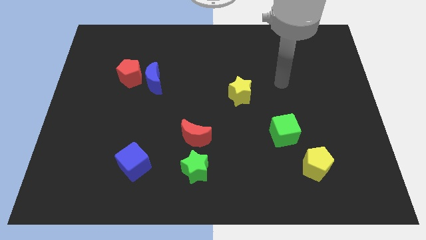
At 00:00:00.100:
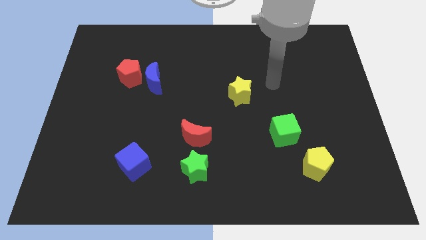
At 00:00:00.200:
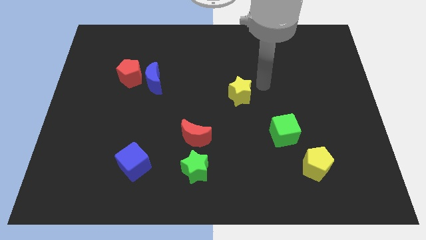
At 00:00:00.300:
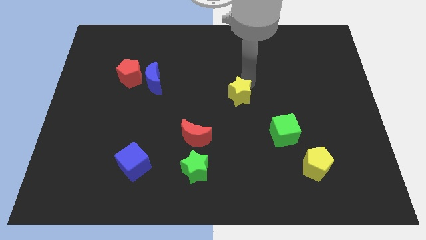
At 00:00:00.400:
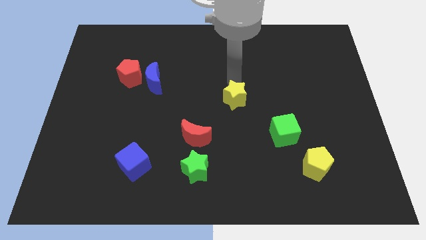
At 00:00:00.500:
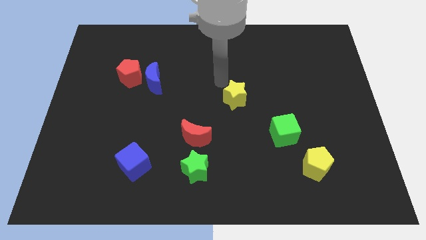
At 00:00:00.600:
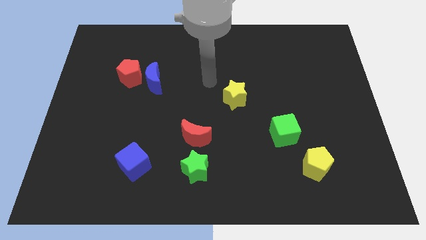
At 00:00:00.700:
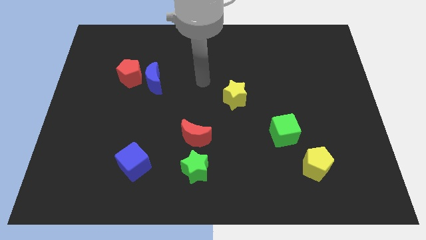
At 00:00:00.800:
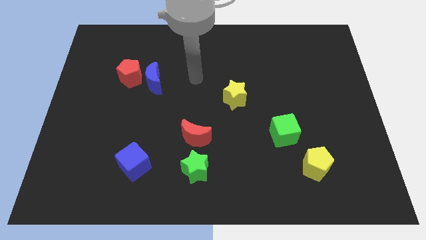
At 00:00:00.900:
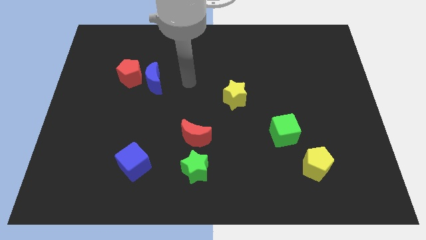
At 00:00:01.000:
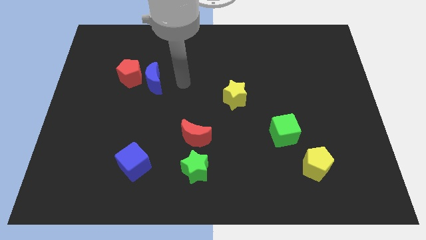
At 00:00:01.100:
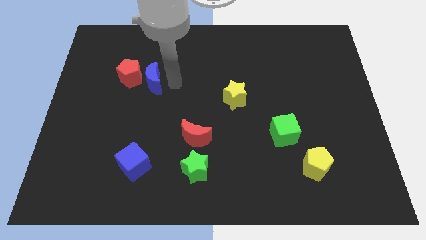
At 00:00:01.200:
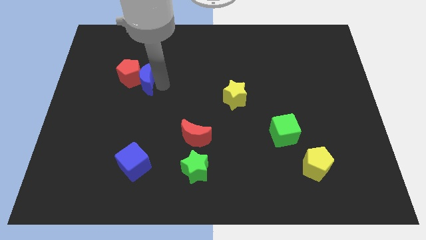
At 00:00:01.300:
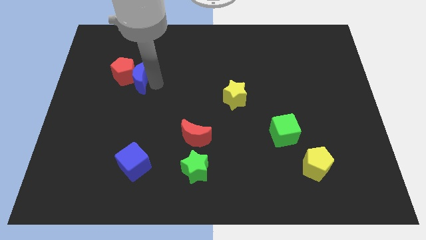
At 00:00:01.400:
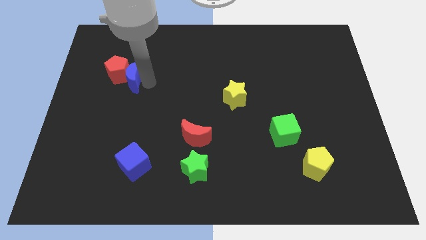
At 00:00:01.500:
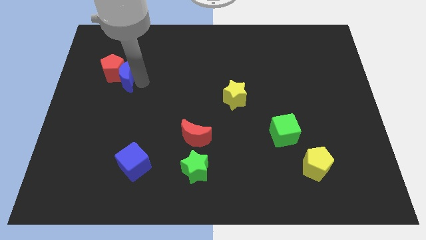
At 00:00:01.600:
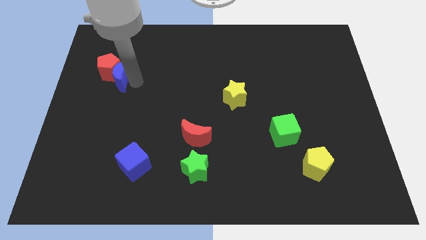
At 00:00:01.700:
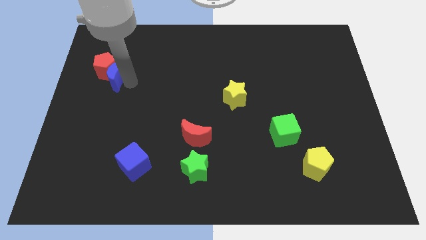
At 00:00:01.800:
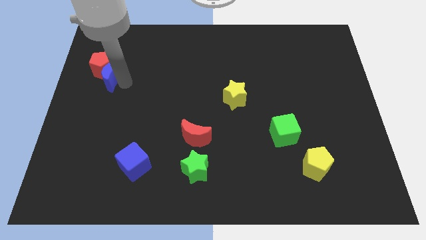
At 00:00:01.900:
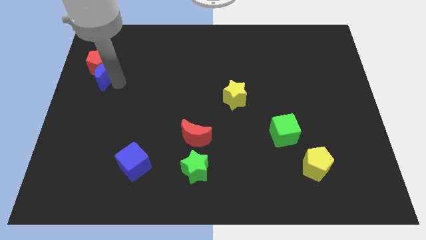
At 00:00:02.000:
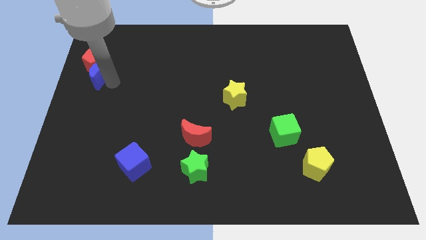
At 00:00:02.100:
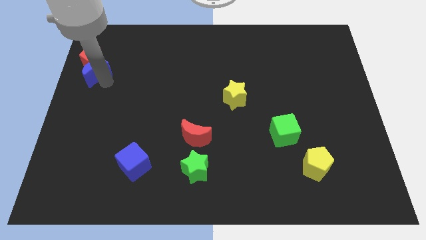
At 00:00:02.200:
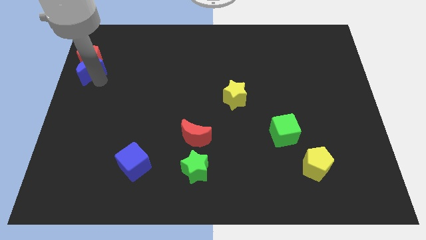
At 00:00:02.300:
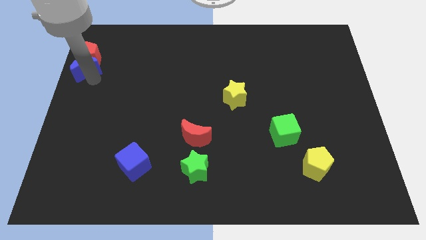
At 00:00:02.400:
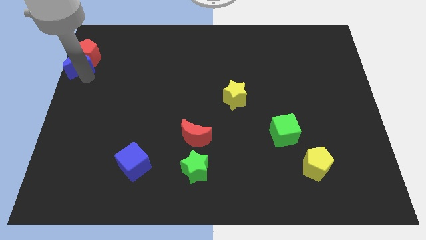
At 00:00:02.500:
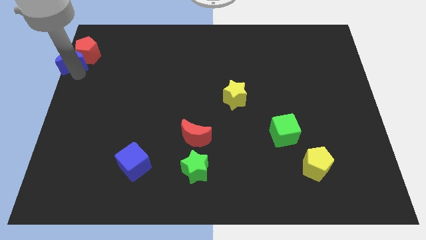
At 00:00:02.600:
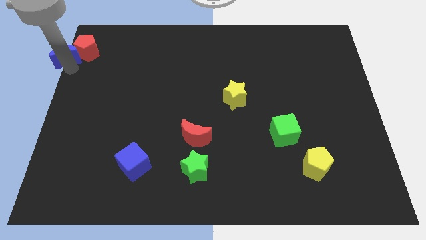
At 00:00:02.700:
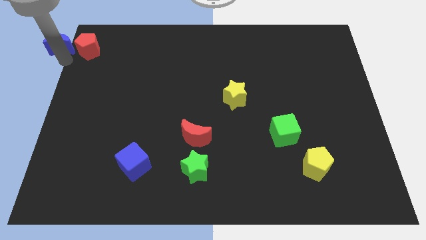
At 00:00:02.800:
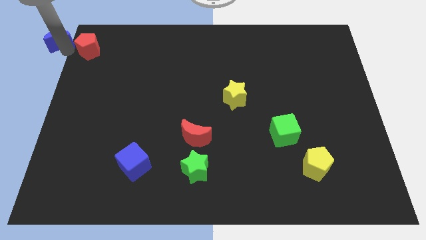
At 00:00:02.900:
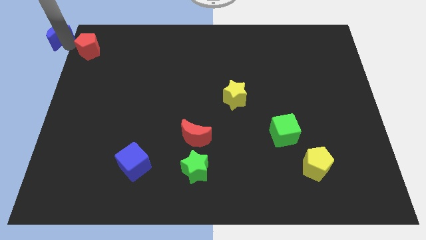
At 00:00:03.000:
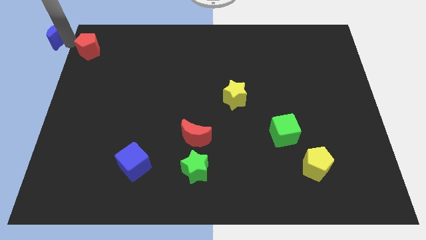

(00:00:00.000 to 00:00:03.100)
move the red pentagon away from the blue moon

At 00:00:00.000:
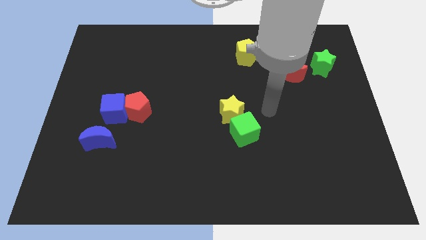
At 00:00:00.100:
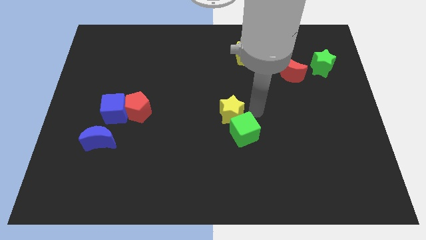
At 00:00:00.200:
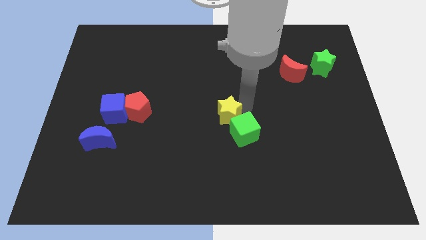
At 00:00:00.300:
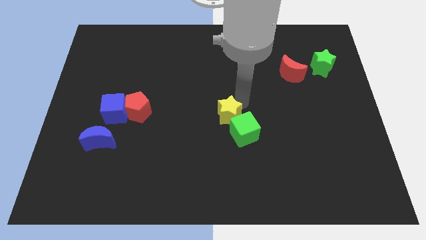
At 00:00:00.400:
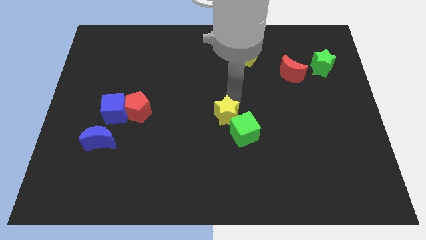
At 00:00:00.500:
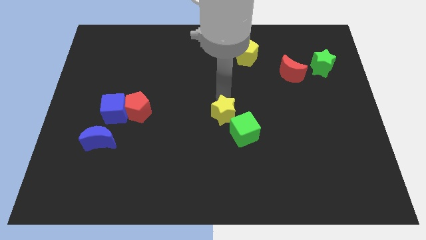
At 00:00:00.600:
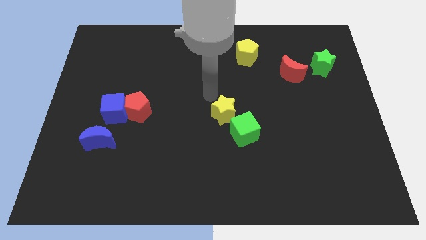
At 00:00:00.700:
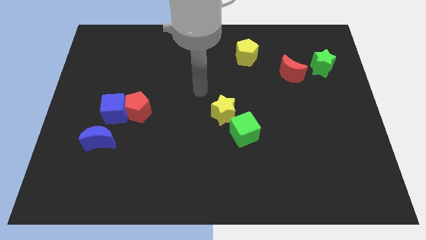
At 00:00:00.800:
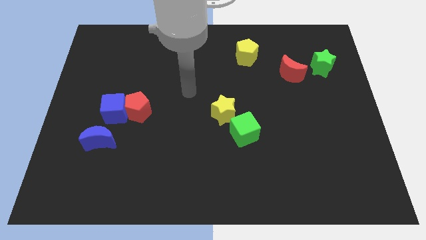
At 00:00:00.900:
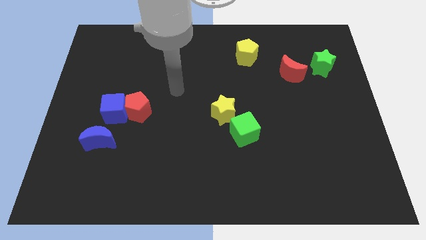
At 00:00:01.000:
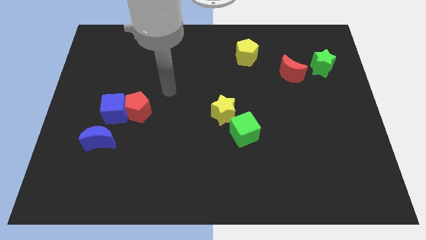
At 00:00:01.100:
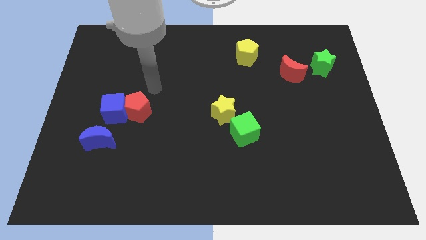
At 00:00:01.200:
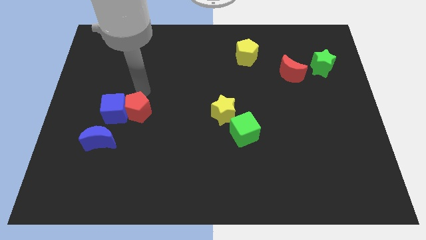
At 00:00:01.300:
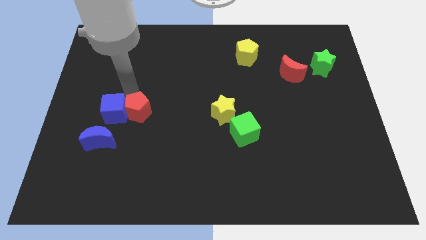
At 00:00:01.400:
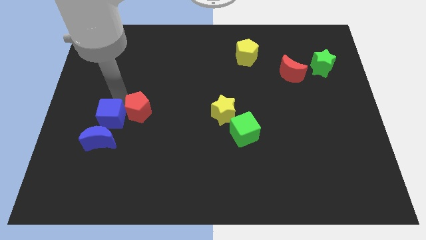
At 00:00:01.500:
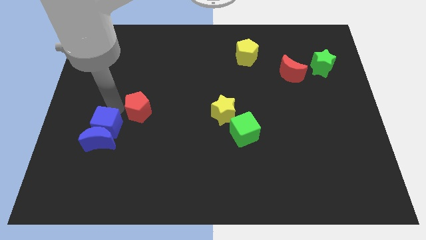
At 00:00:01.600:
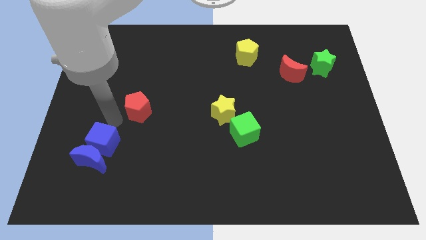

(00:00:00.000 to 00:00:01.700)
move the red pentagon away from the blue cube

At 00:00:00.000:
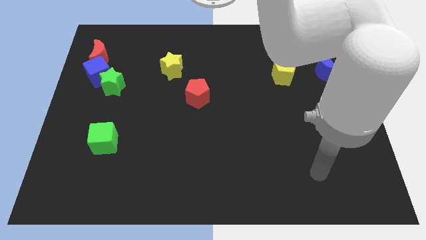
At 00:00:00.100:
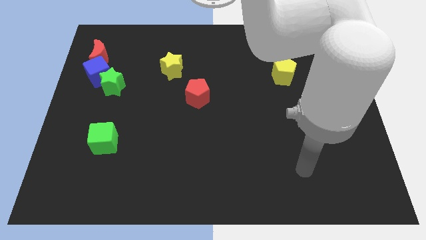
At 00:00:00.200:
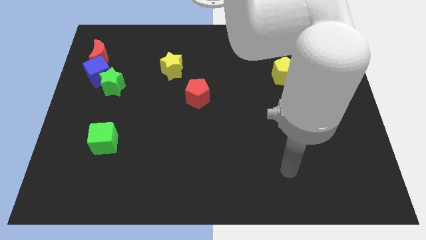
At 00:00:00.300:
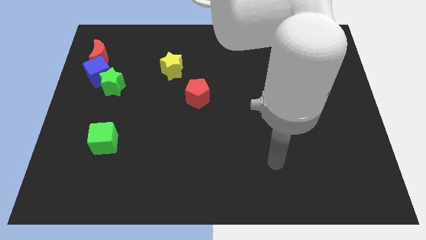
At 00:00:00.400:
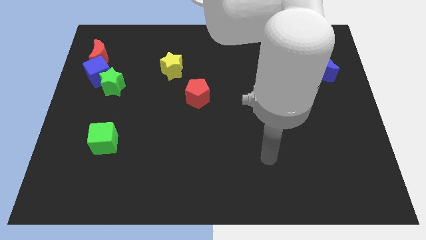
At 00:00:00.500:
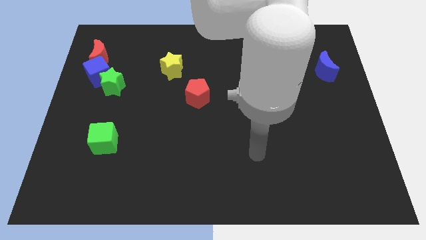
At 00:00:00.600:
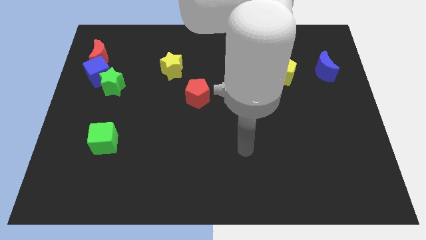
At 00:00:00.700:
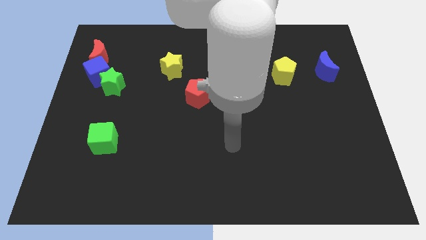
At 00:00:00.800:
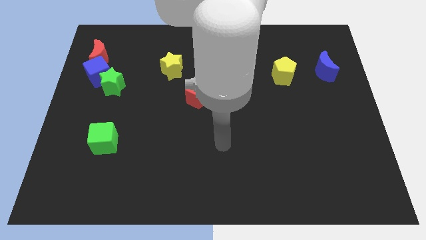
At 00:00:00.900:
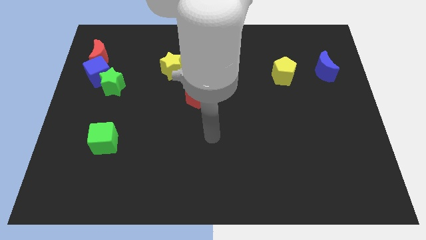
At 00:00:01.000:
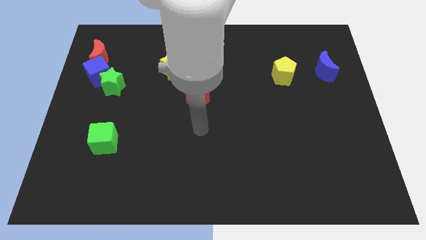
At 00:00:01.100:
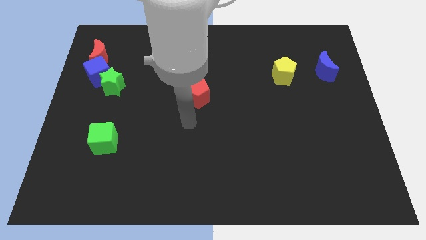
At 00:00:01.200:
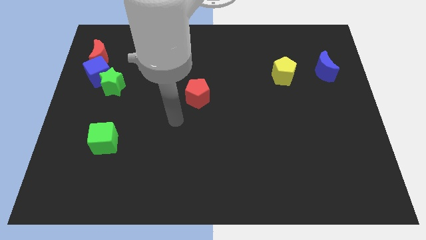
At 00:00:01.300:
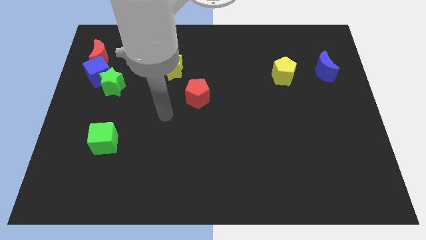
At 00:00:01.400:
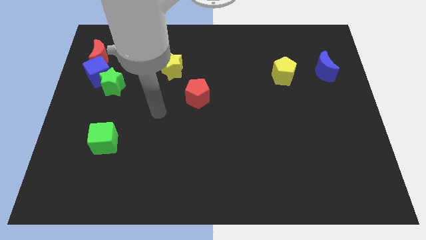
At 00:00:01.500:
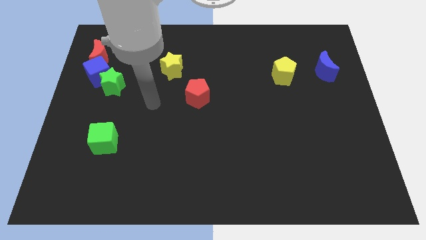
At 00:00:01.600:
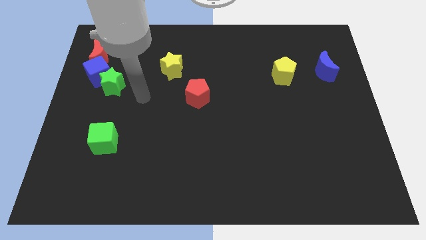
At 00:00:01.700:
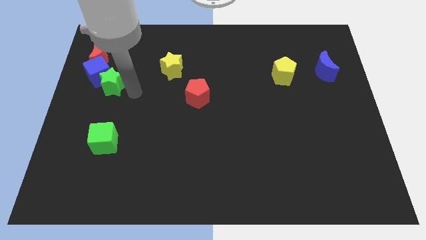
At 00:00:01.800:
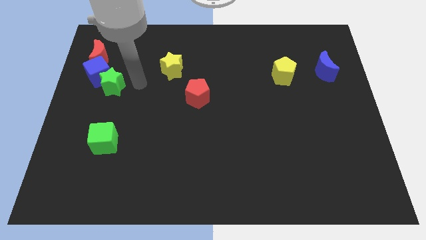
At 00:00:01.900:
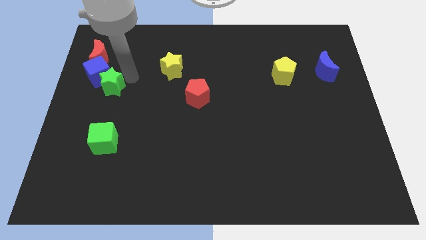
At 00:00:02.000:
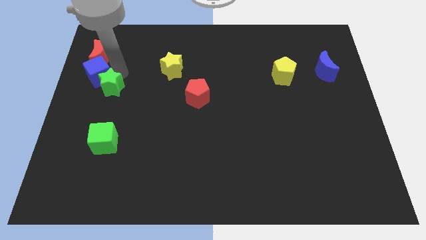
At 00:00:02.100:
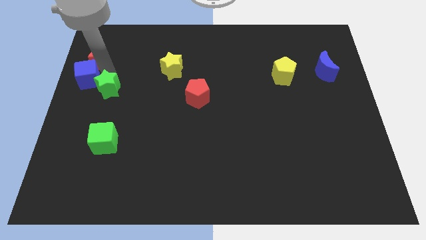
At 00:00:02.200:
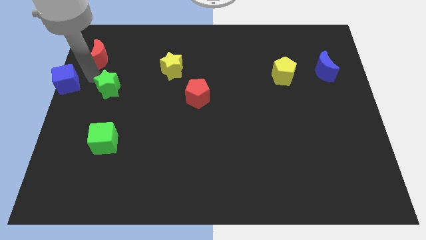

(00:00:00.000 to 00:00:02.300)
pull the green star apart from the blue cube

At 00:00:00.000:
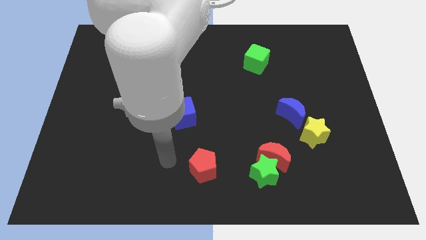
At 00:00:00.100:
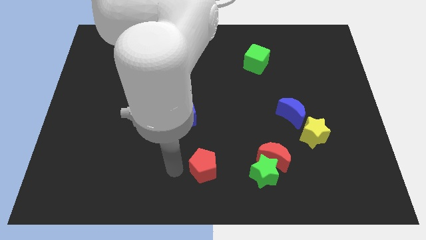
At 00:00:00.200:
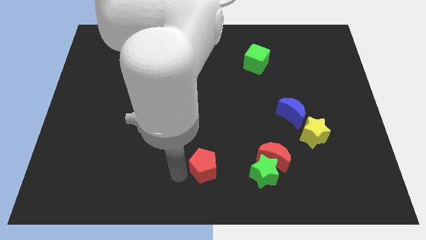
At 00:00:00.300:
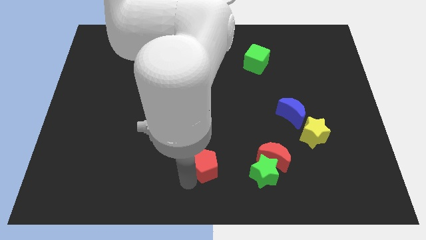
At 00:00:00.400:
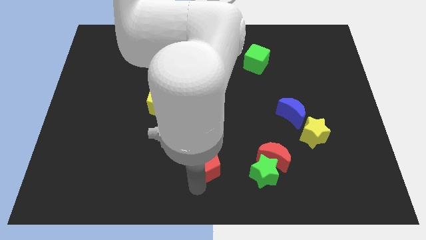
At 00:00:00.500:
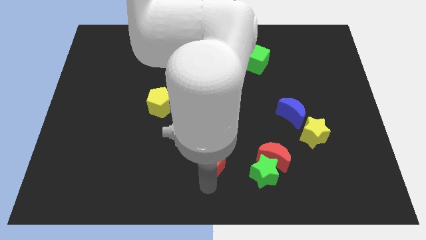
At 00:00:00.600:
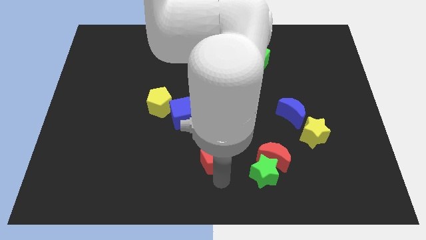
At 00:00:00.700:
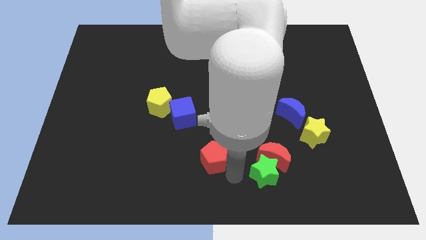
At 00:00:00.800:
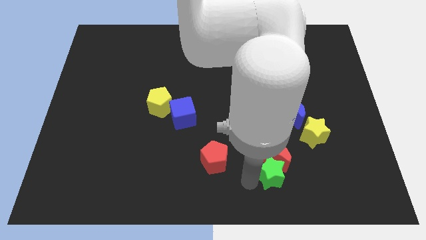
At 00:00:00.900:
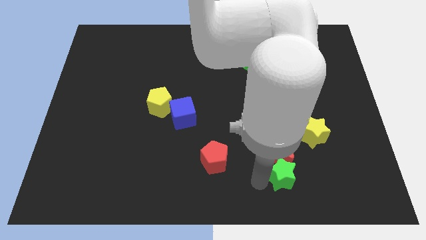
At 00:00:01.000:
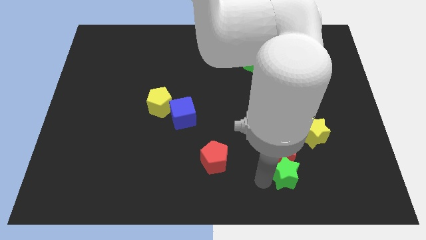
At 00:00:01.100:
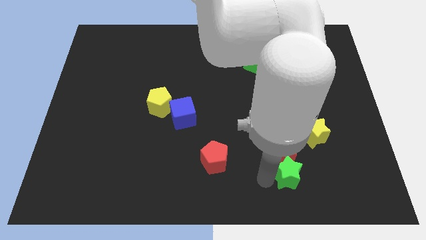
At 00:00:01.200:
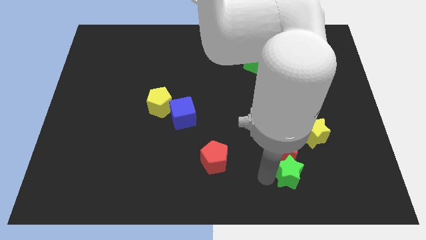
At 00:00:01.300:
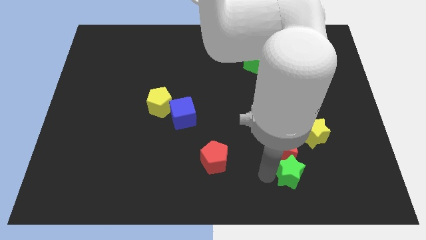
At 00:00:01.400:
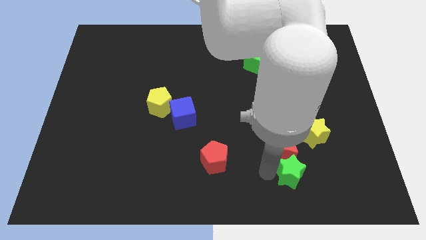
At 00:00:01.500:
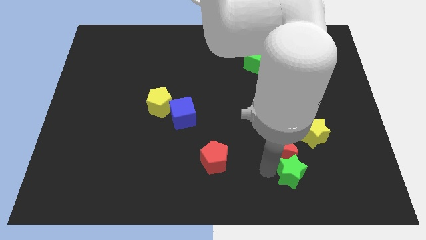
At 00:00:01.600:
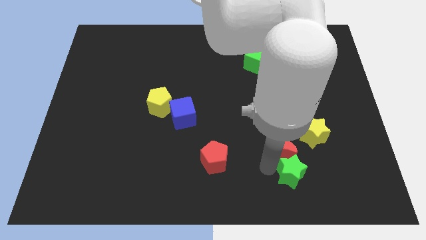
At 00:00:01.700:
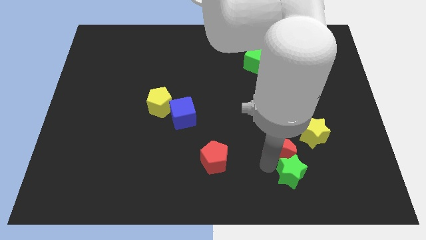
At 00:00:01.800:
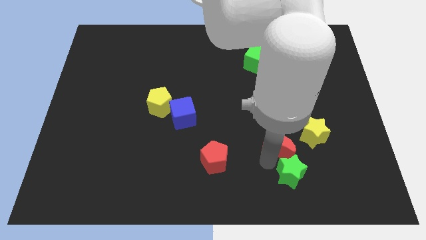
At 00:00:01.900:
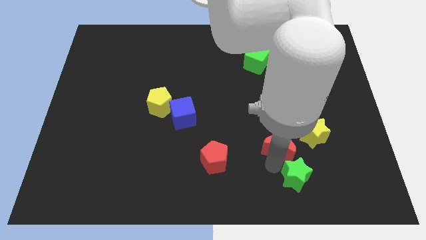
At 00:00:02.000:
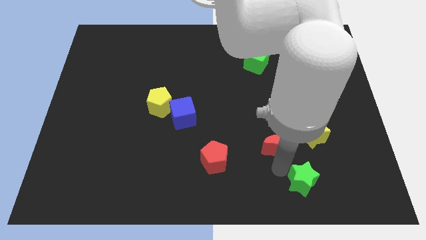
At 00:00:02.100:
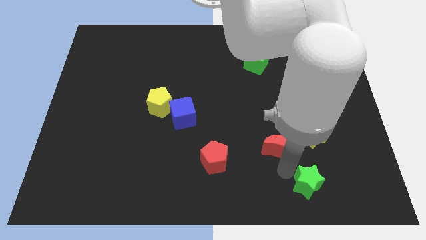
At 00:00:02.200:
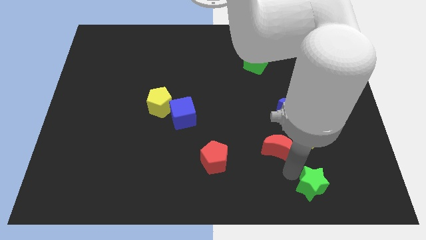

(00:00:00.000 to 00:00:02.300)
move the red moon away from the green star

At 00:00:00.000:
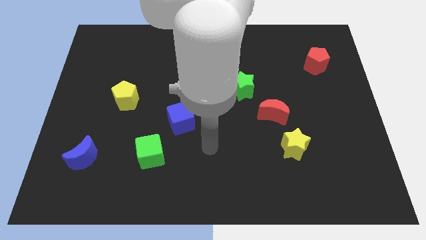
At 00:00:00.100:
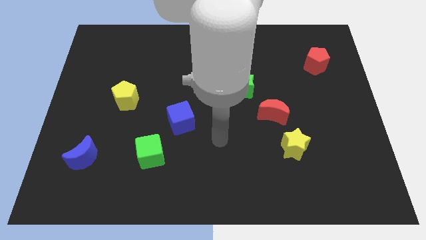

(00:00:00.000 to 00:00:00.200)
separate the yellow star from the red moon
